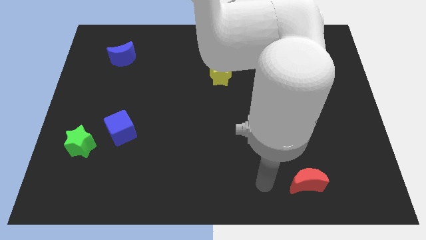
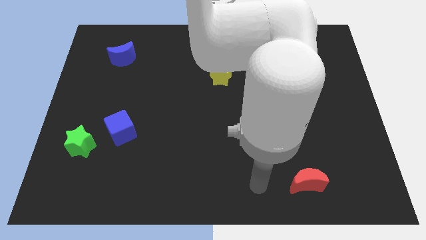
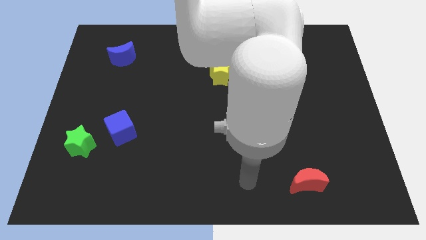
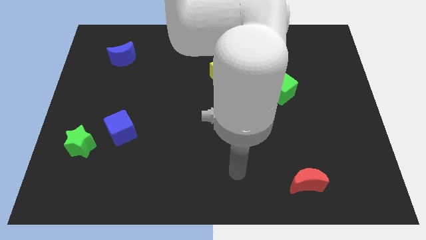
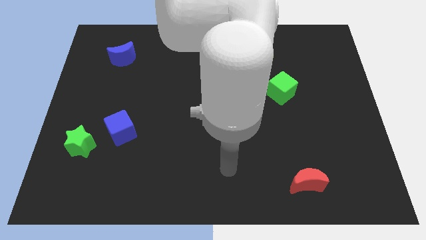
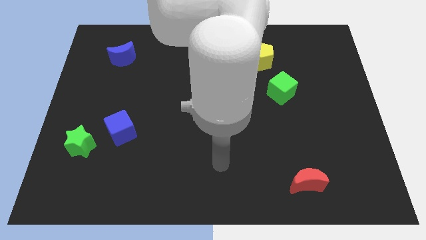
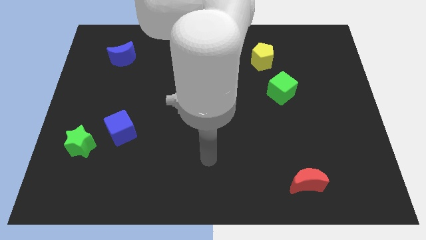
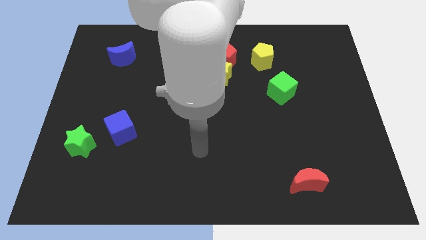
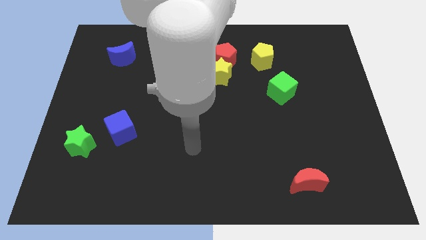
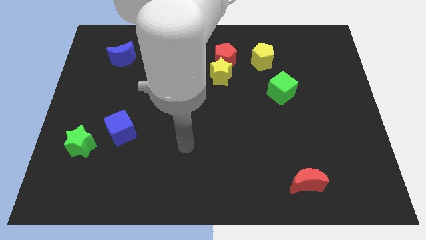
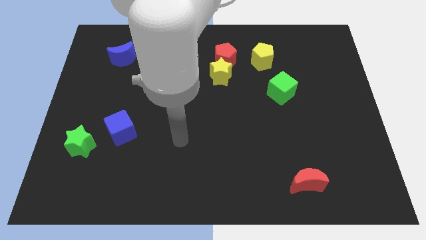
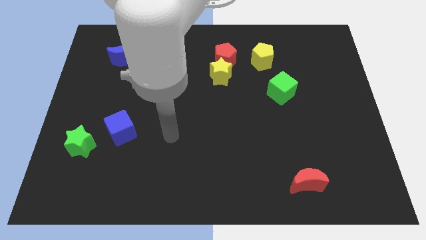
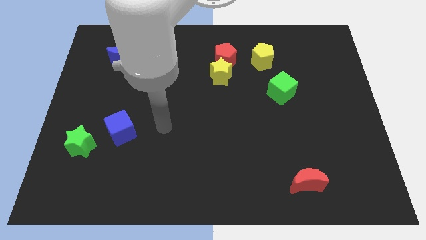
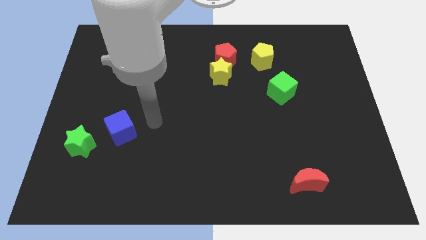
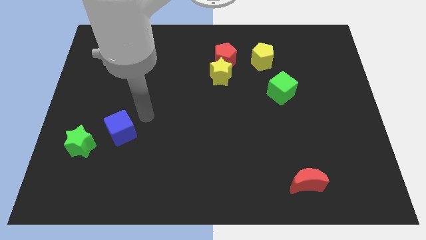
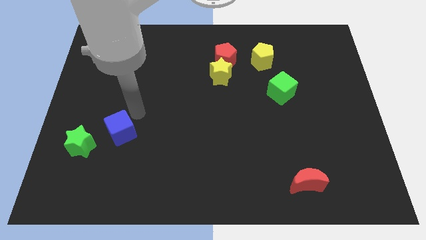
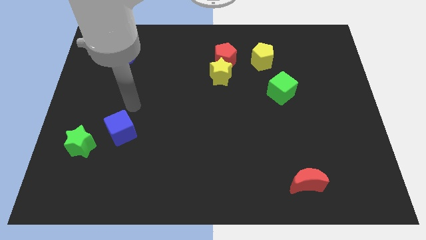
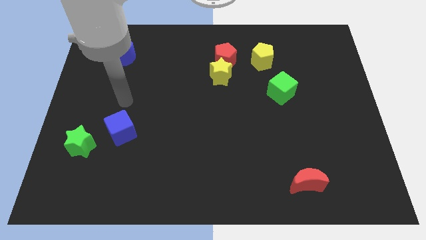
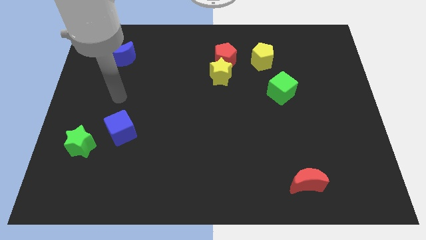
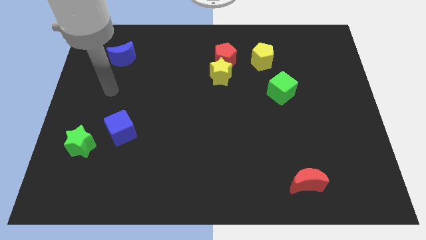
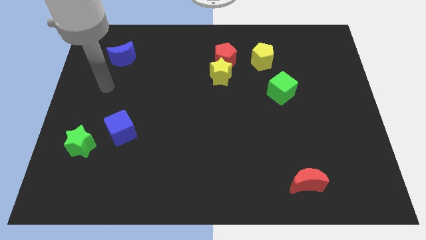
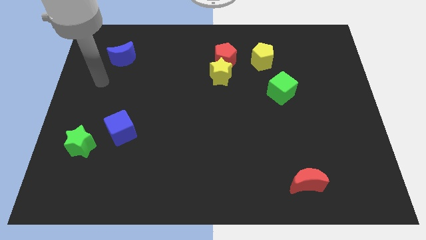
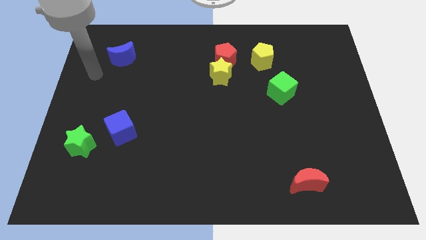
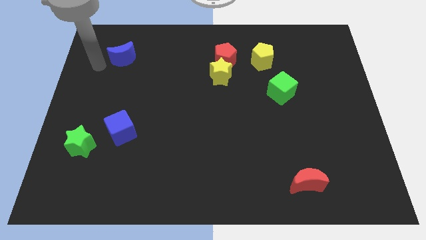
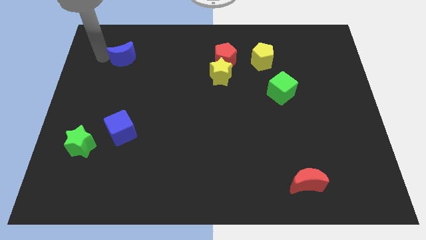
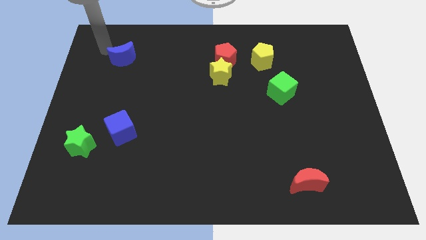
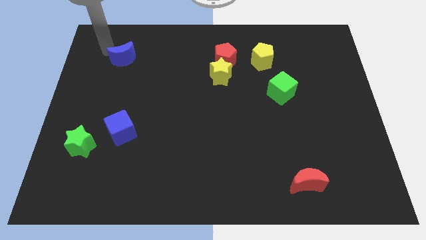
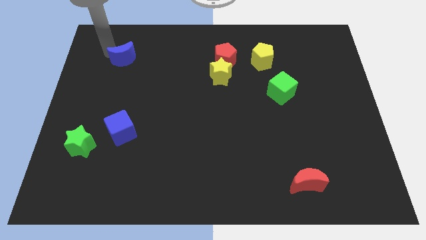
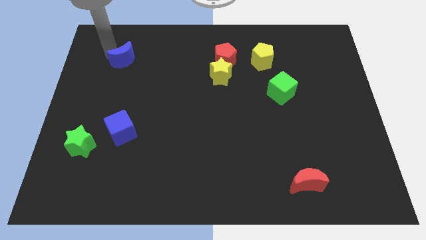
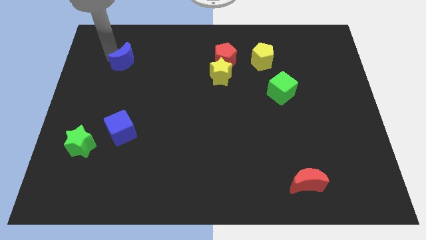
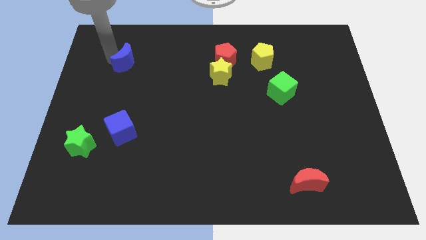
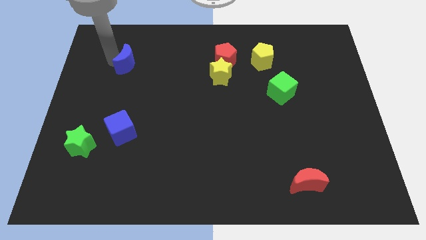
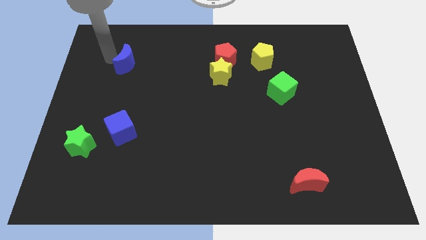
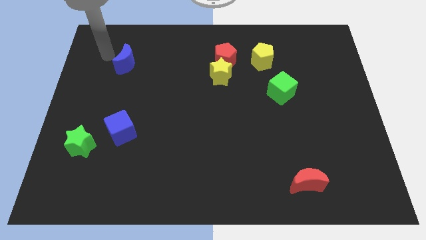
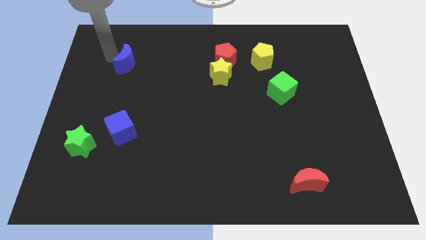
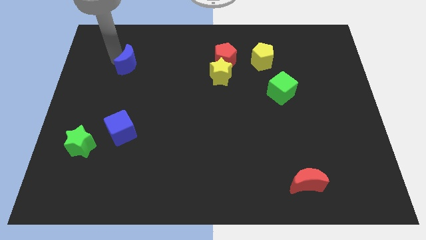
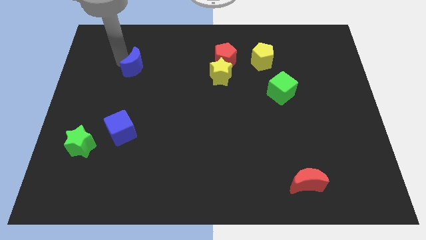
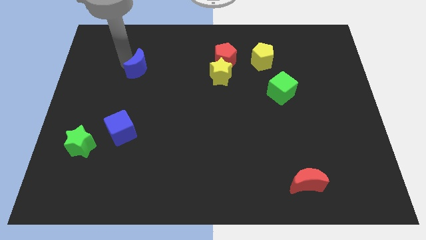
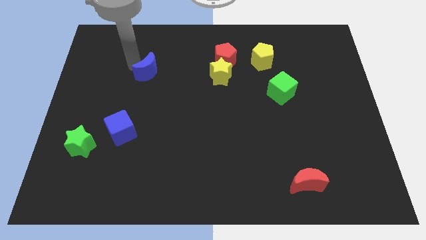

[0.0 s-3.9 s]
slightly slide the blue moon down and right diagonally

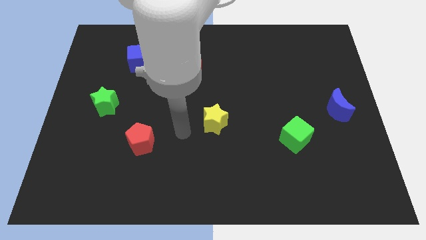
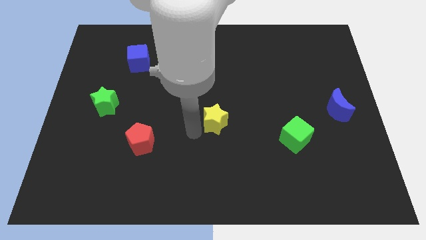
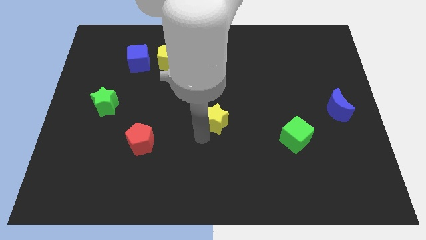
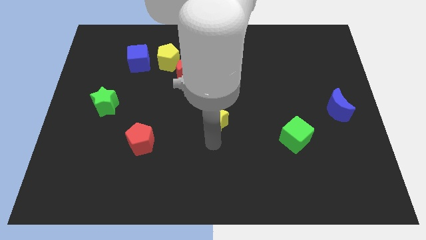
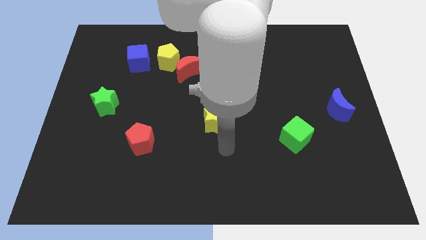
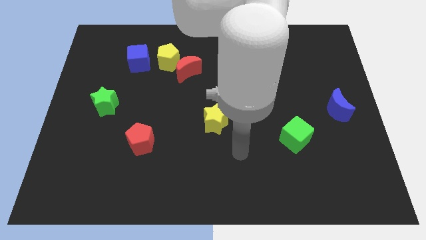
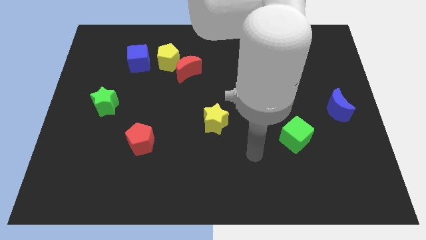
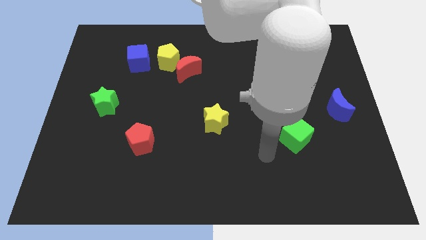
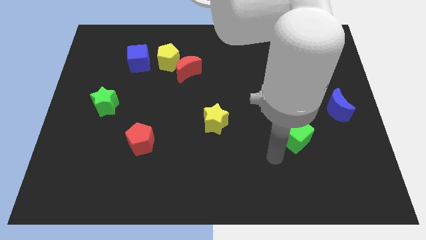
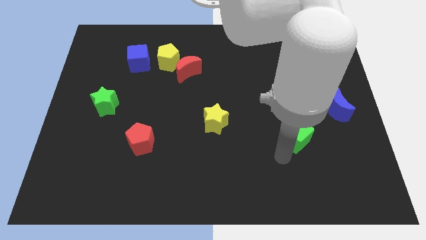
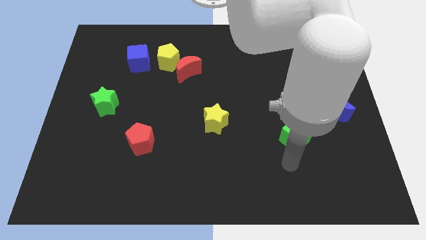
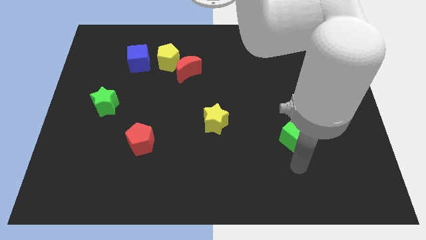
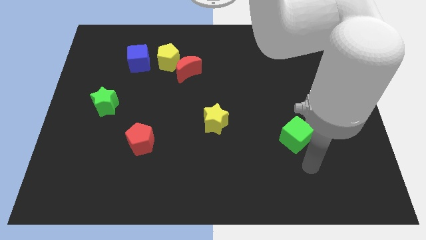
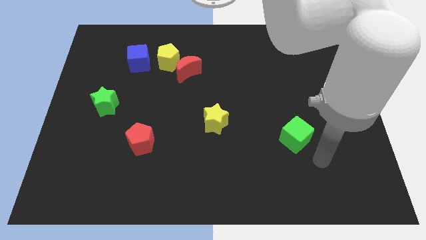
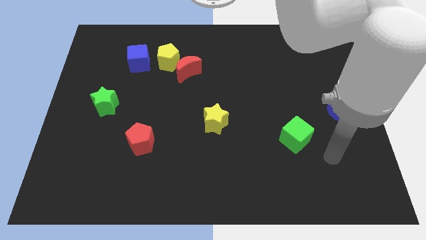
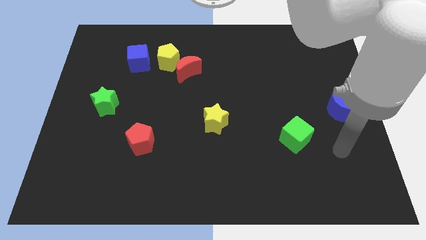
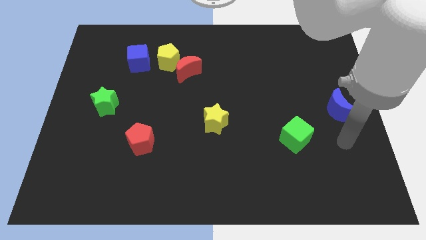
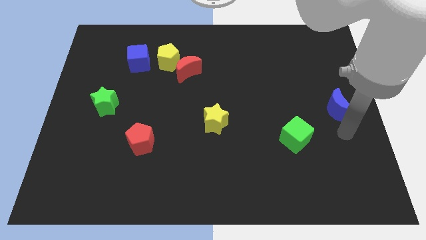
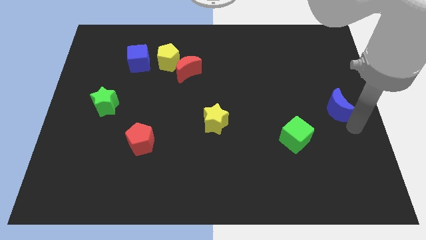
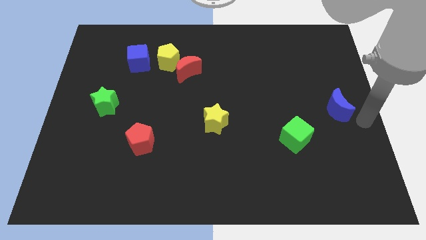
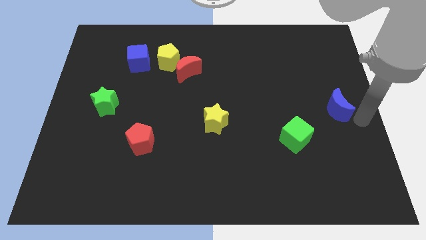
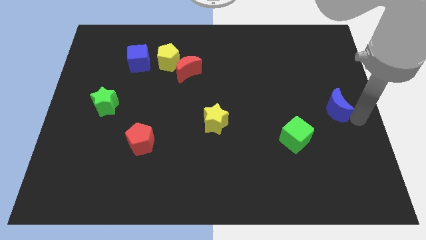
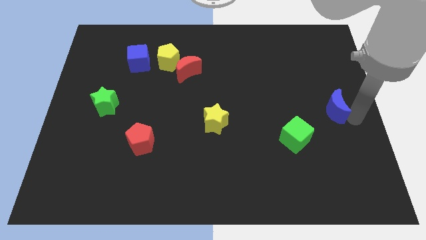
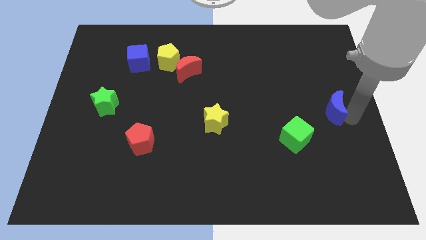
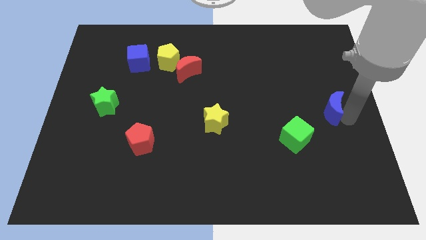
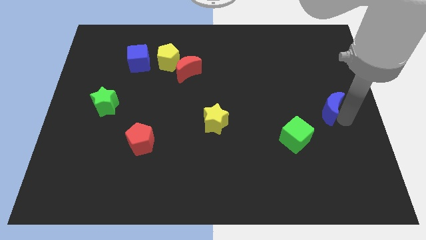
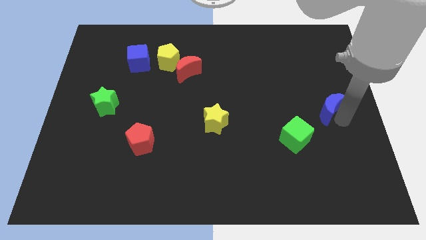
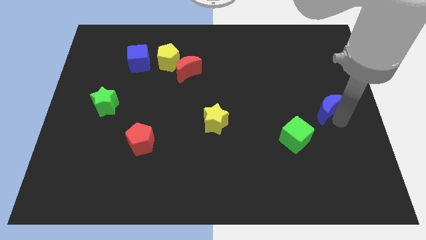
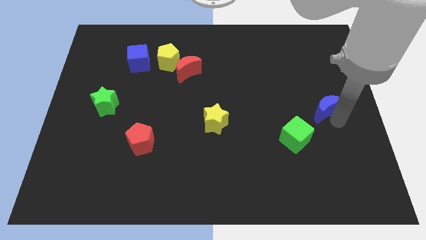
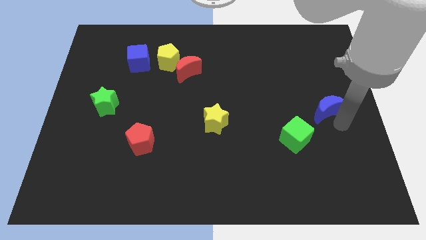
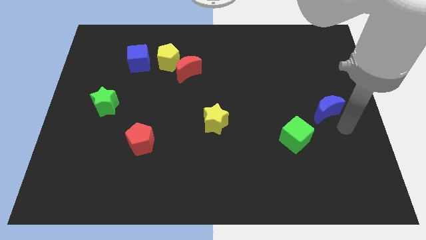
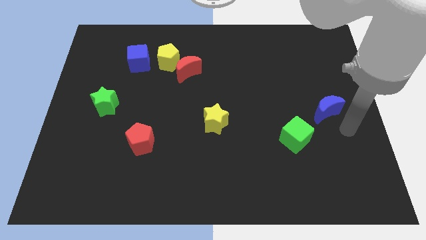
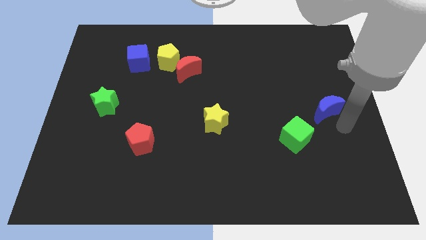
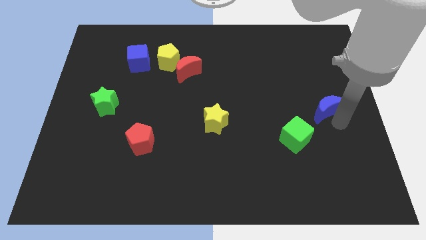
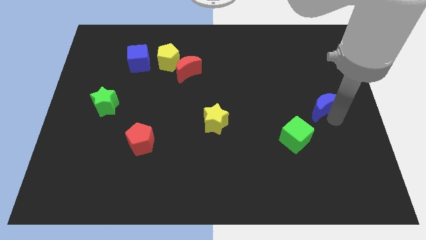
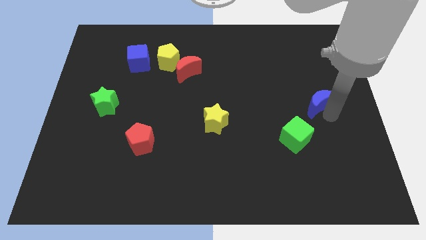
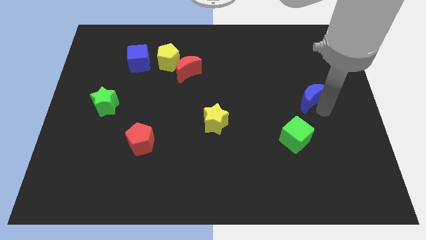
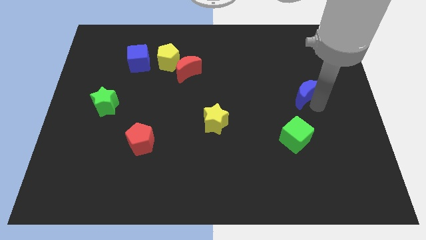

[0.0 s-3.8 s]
slightly slide the blue moon up and then to the left

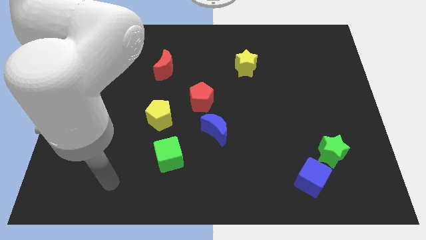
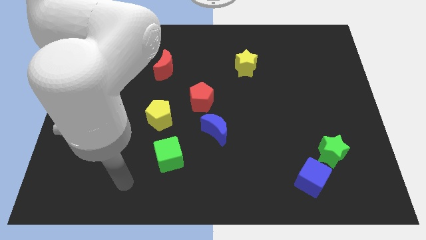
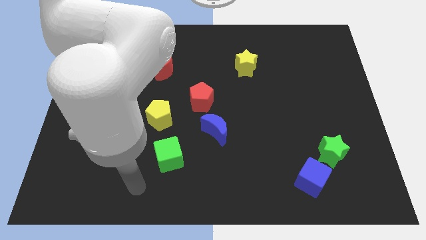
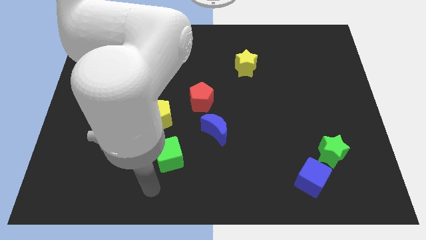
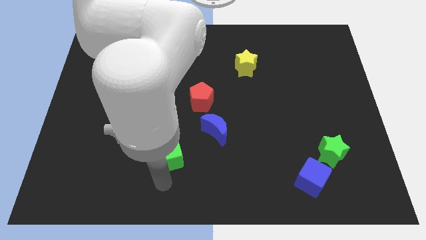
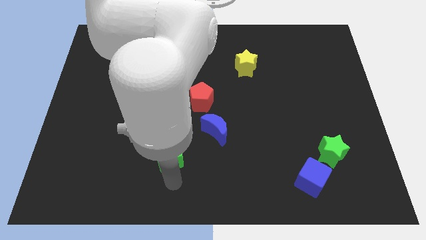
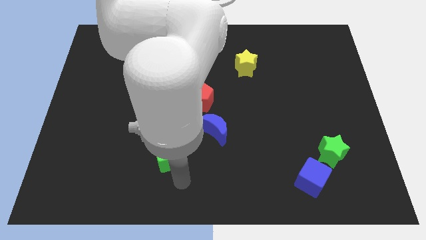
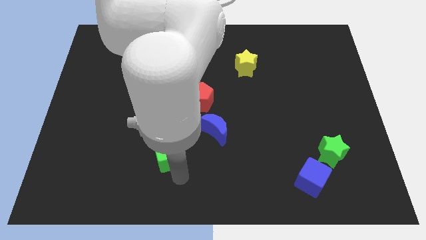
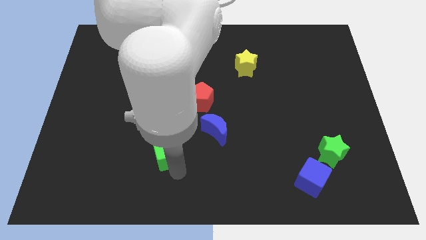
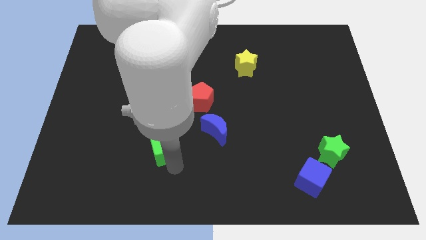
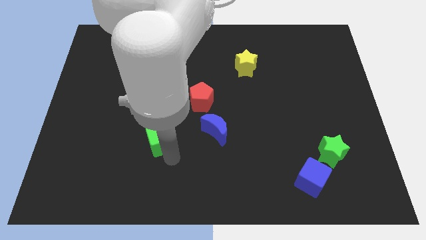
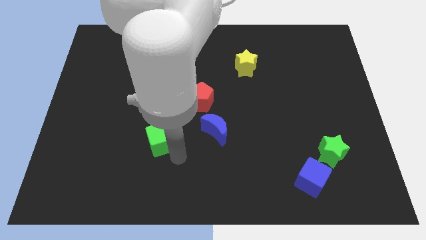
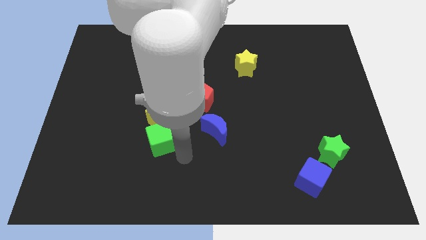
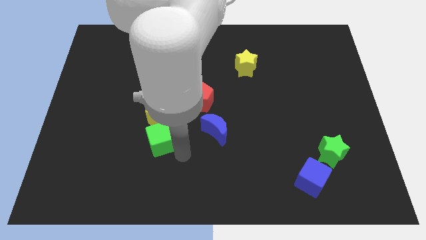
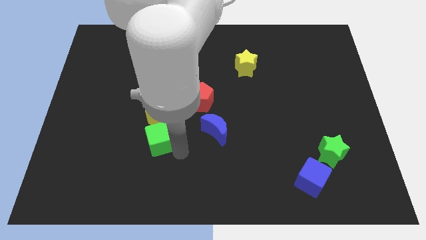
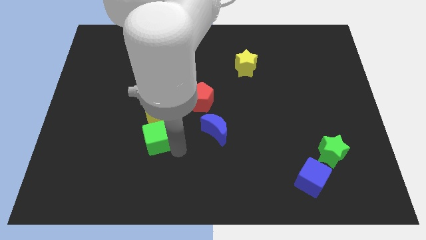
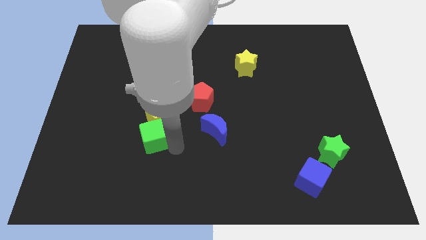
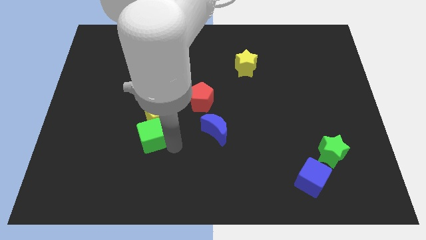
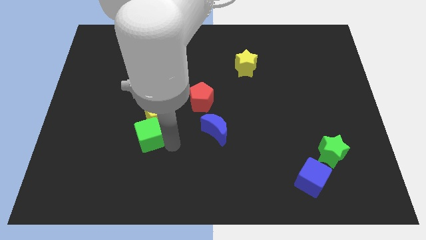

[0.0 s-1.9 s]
slide the green cube a bit diagonally up and left
